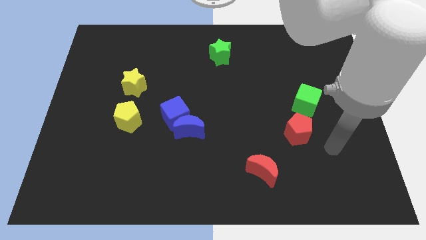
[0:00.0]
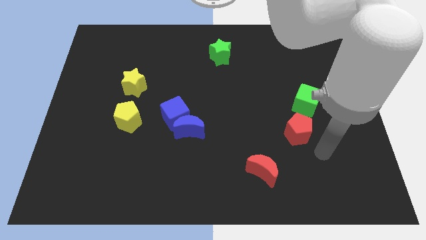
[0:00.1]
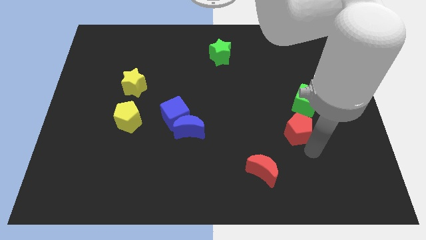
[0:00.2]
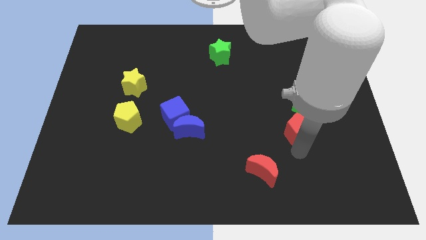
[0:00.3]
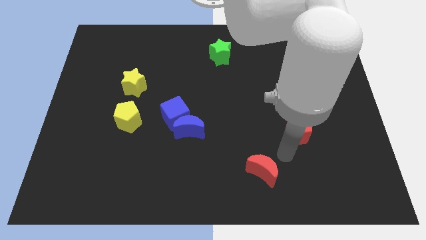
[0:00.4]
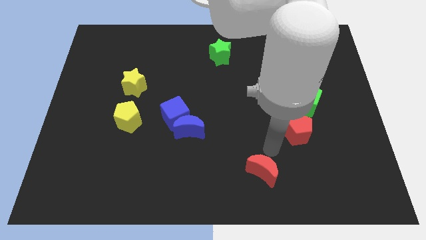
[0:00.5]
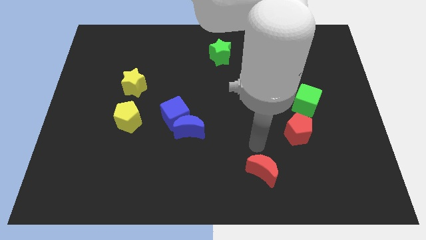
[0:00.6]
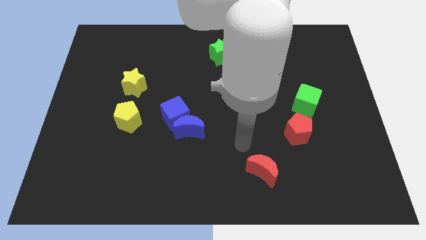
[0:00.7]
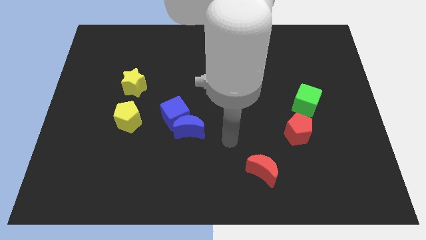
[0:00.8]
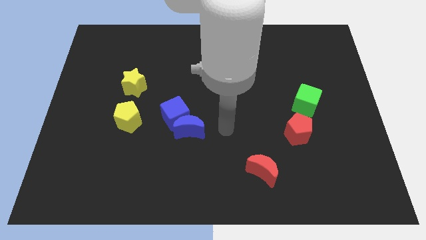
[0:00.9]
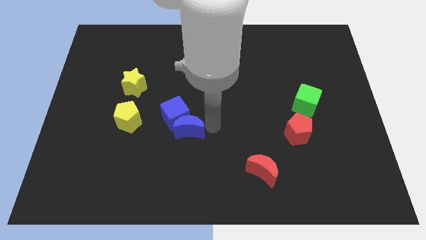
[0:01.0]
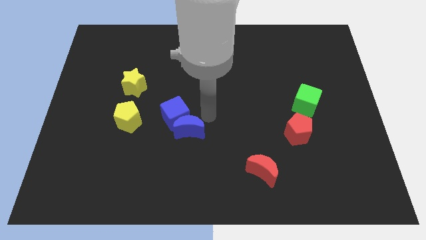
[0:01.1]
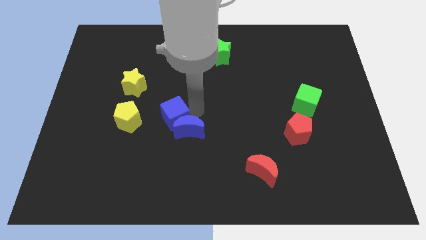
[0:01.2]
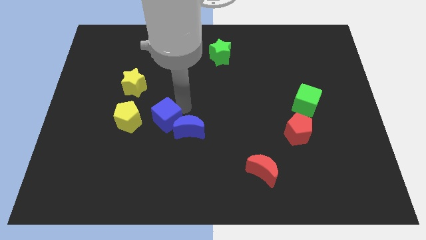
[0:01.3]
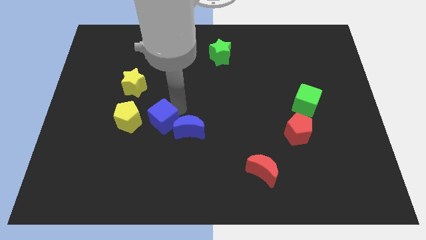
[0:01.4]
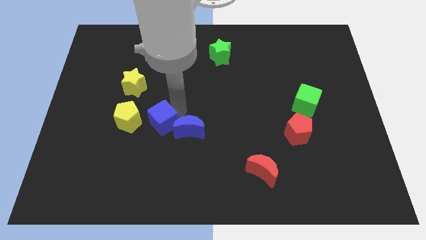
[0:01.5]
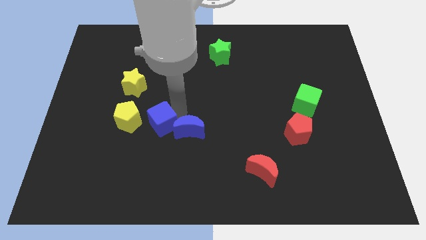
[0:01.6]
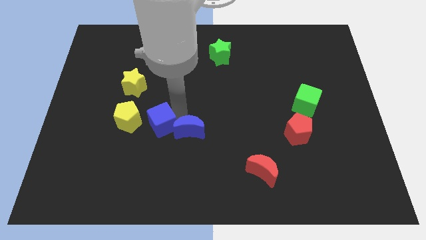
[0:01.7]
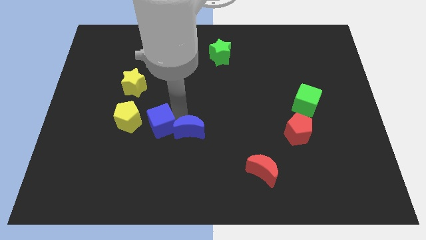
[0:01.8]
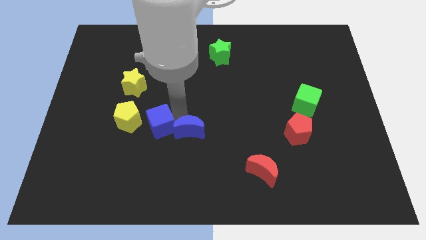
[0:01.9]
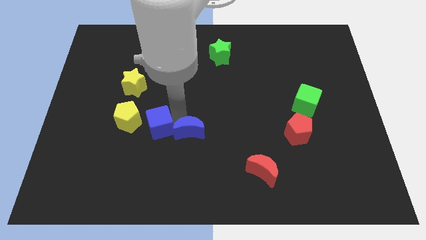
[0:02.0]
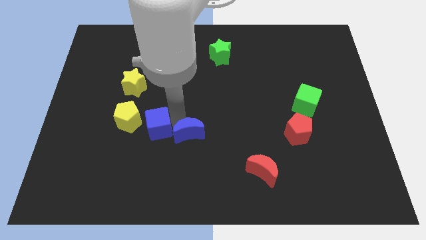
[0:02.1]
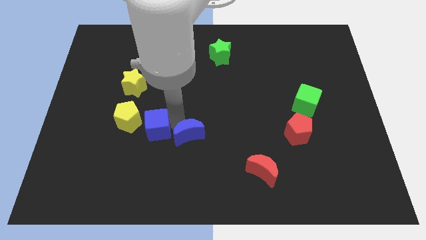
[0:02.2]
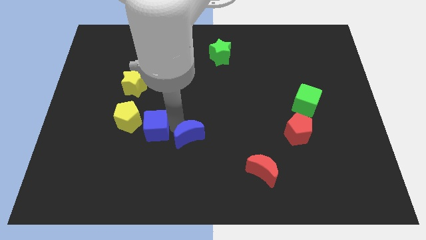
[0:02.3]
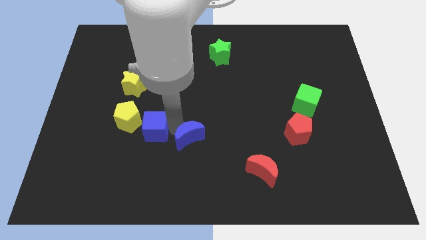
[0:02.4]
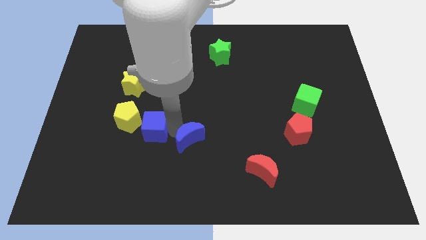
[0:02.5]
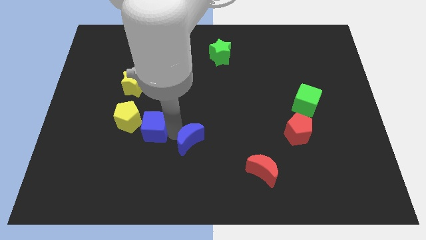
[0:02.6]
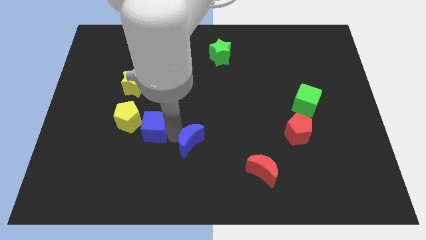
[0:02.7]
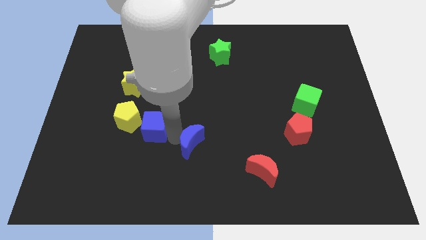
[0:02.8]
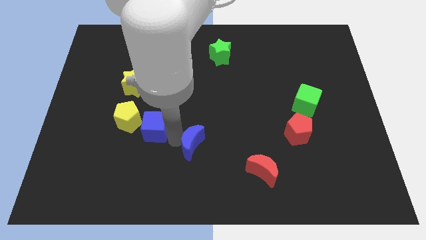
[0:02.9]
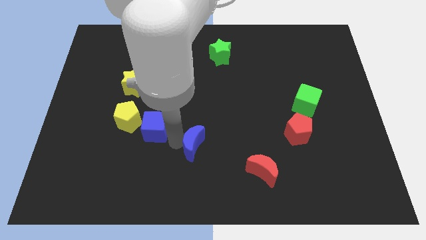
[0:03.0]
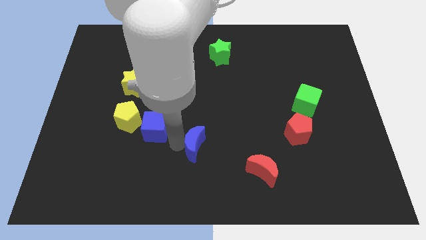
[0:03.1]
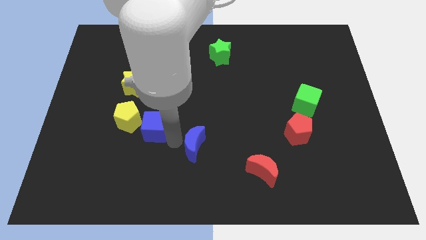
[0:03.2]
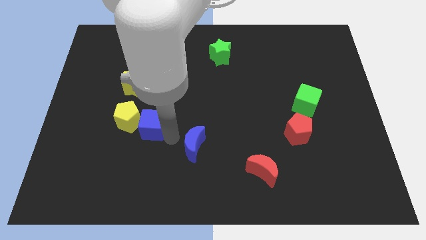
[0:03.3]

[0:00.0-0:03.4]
pull the blue moon apart from the blue cube

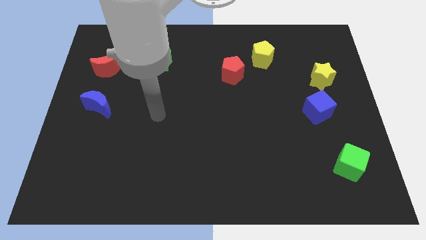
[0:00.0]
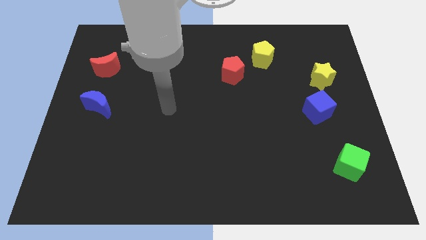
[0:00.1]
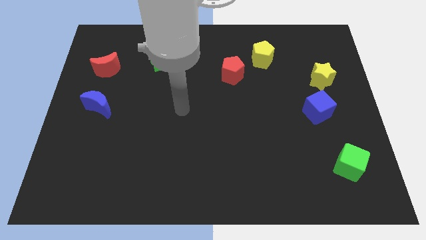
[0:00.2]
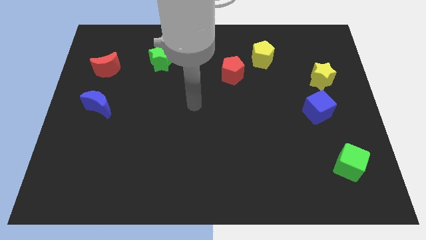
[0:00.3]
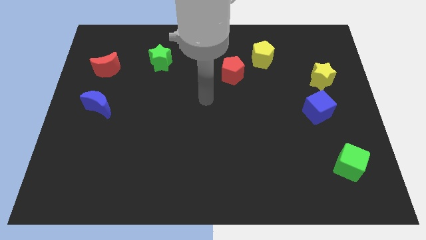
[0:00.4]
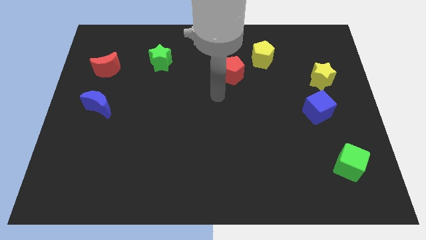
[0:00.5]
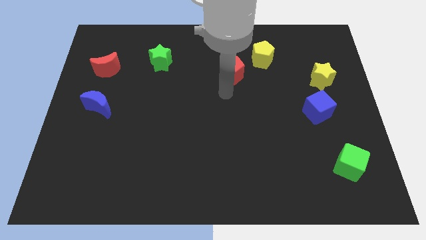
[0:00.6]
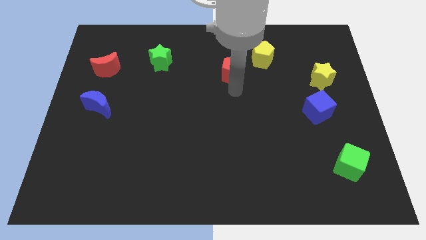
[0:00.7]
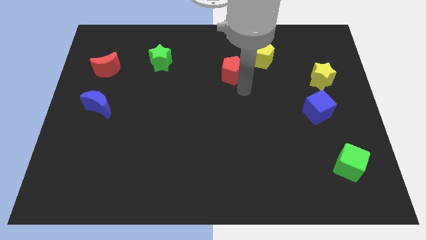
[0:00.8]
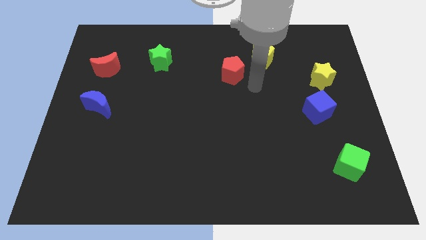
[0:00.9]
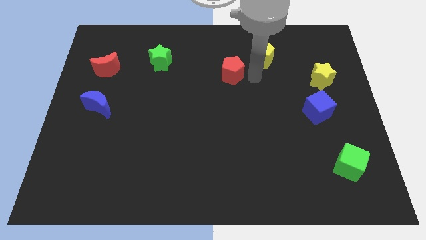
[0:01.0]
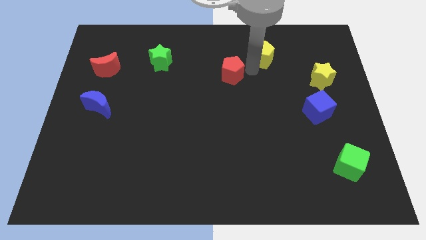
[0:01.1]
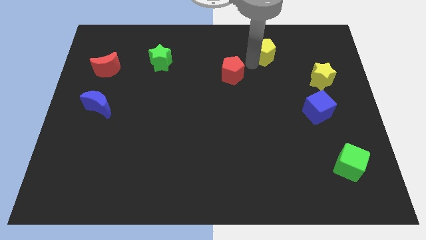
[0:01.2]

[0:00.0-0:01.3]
separate the red pentagon from the yellow pentagon

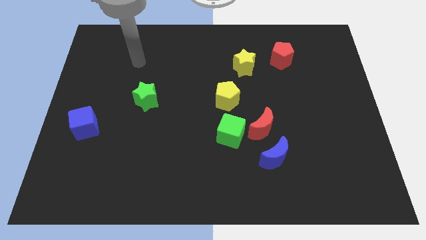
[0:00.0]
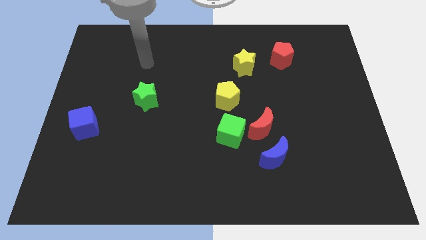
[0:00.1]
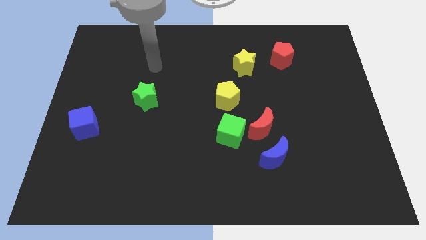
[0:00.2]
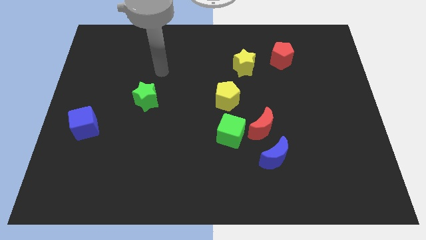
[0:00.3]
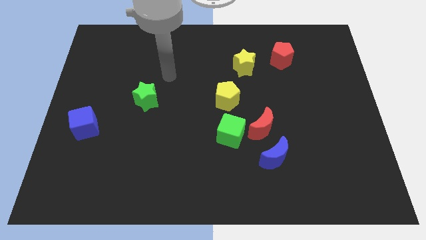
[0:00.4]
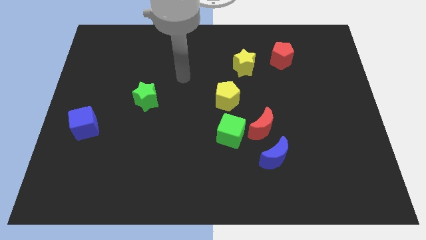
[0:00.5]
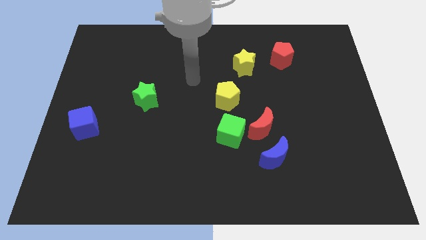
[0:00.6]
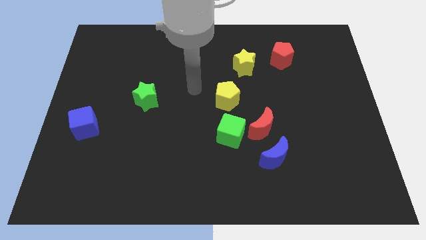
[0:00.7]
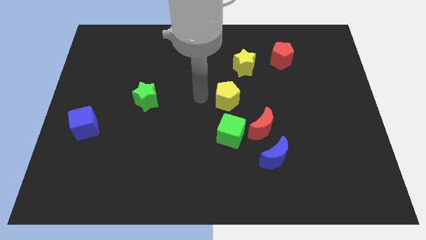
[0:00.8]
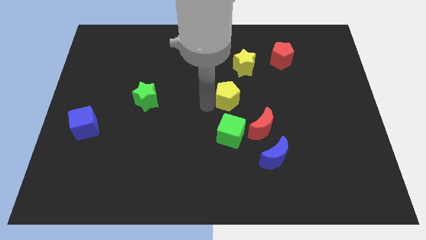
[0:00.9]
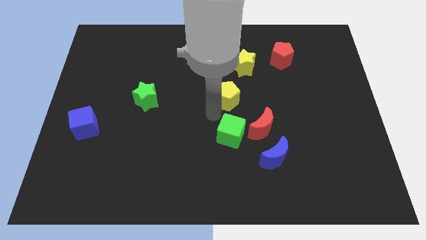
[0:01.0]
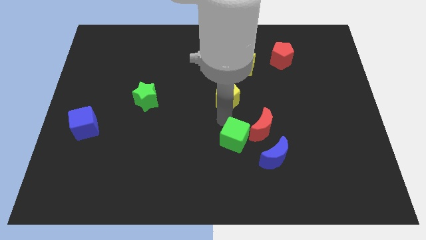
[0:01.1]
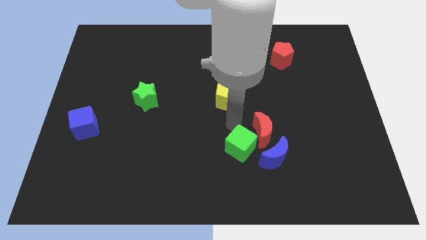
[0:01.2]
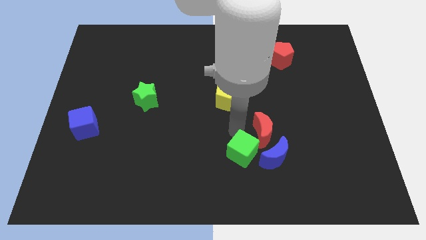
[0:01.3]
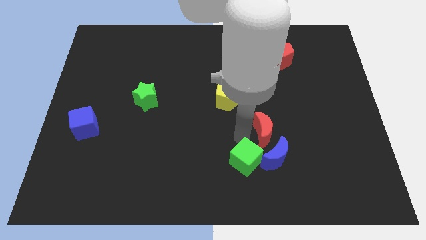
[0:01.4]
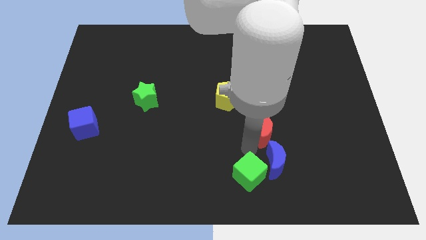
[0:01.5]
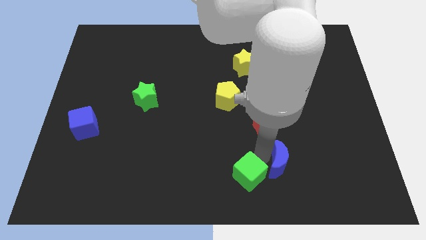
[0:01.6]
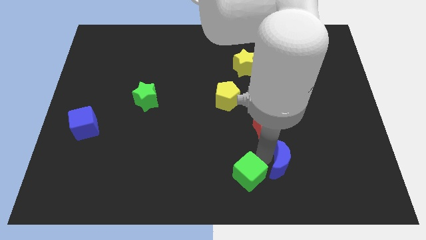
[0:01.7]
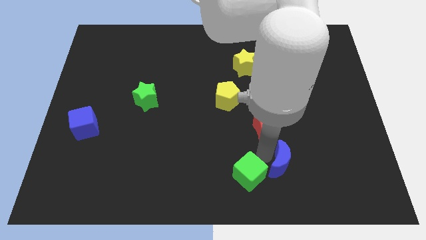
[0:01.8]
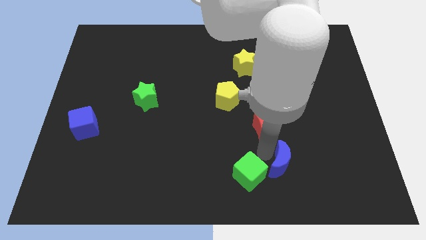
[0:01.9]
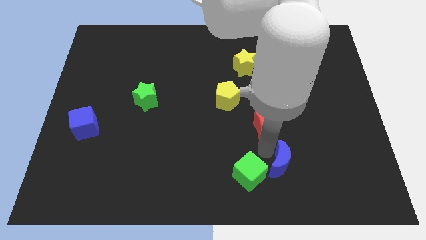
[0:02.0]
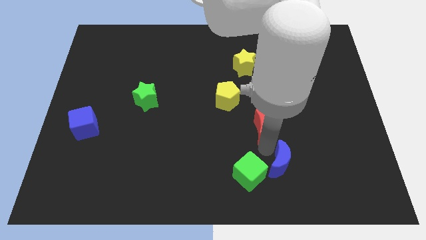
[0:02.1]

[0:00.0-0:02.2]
move the red moon away from the green cube and blue moon

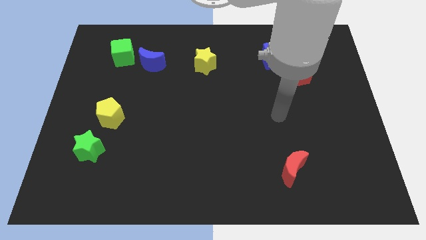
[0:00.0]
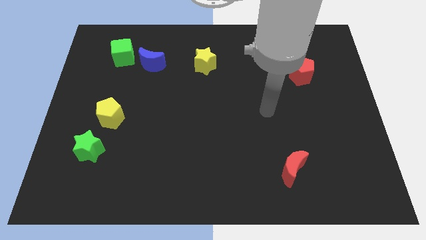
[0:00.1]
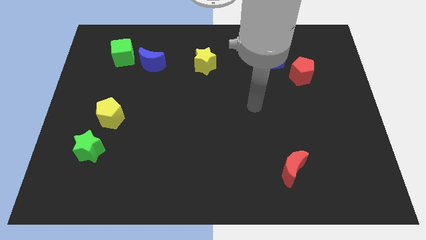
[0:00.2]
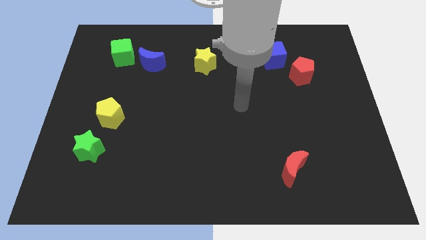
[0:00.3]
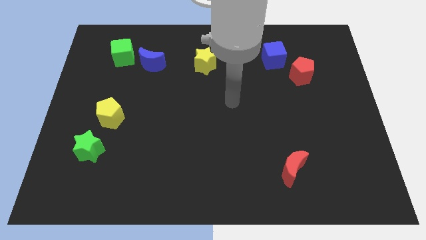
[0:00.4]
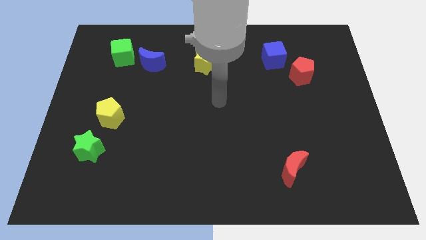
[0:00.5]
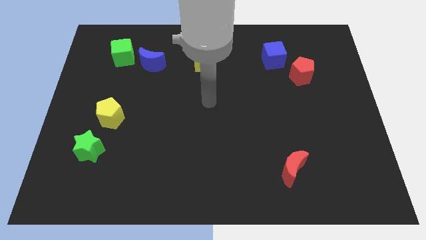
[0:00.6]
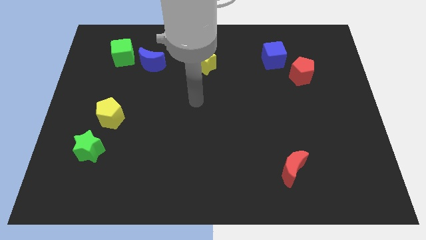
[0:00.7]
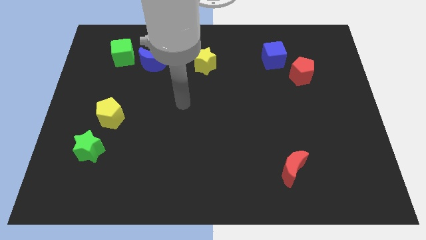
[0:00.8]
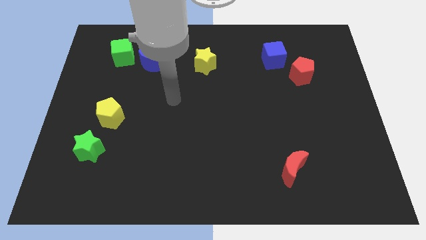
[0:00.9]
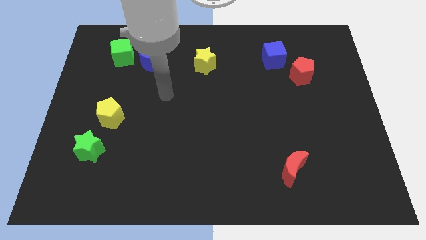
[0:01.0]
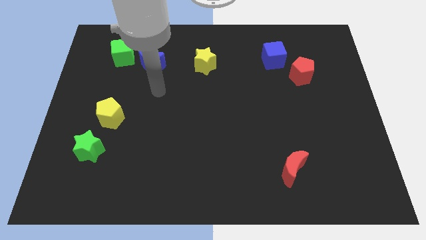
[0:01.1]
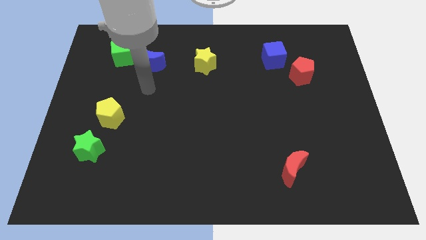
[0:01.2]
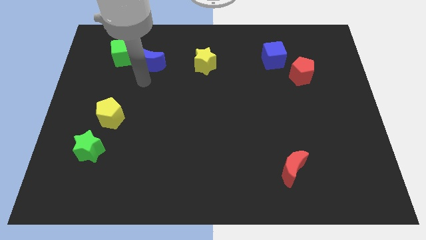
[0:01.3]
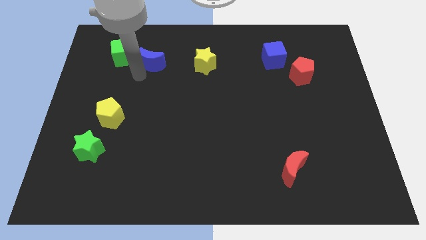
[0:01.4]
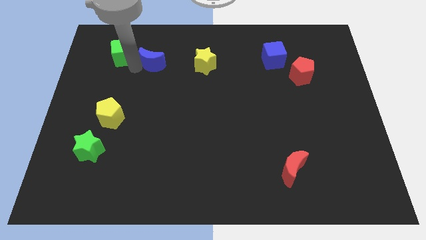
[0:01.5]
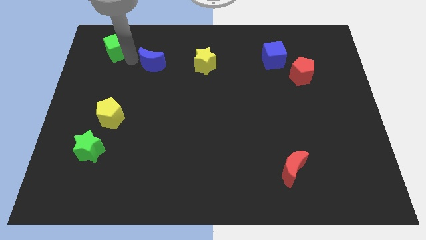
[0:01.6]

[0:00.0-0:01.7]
separate the blue moon from the green cube

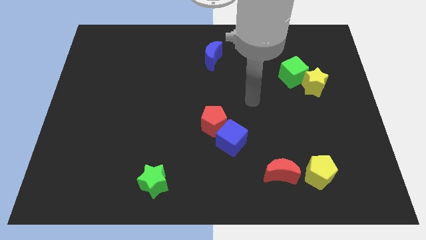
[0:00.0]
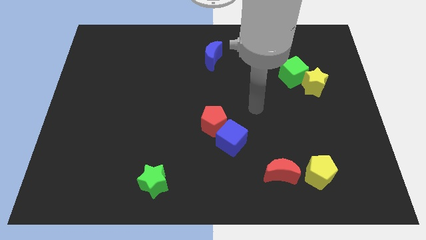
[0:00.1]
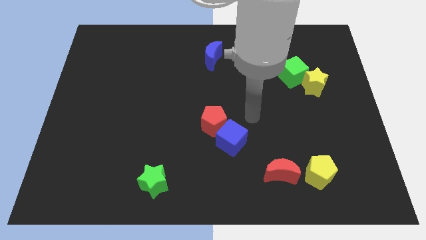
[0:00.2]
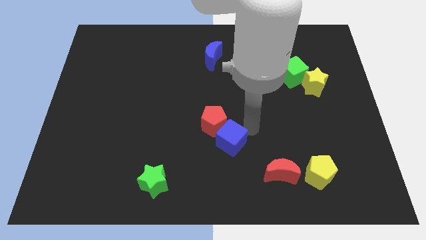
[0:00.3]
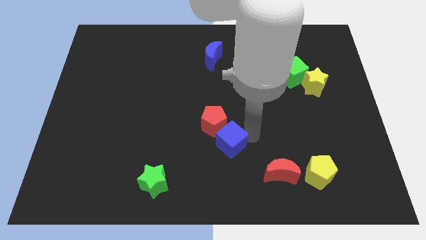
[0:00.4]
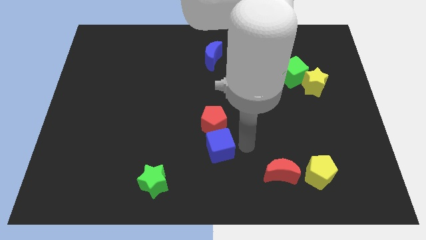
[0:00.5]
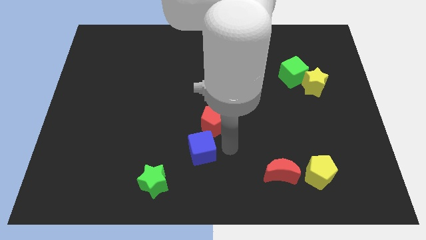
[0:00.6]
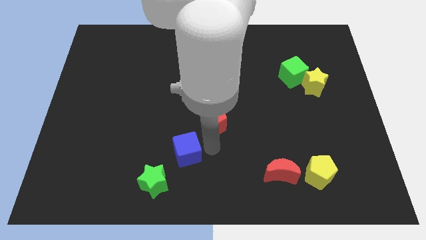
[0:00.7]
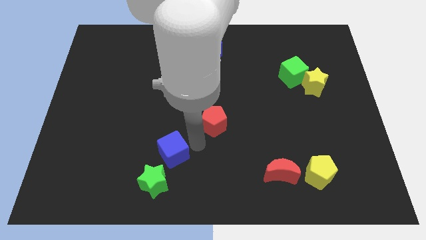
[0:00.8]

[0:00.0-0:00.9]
separate the red pentagon from the blue cube
